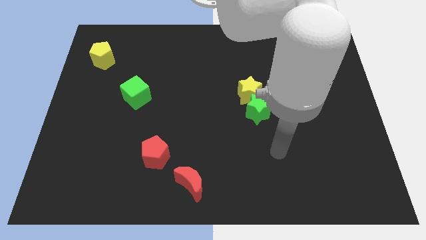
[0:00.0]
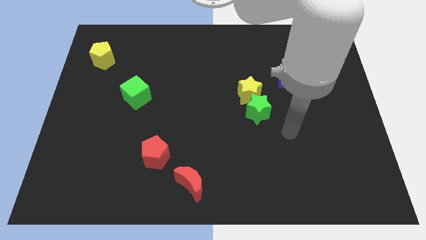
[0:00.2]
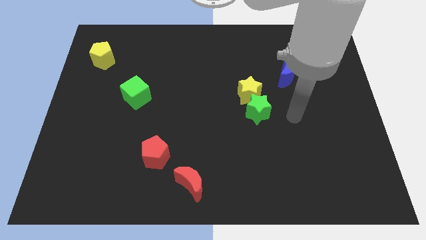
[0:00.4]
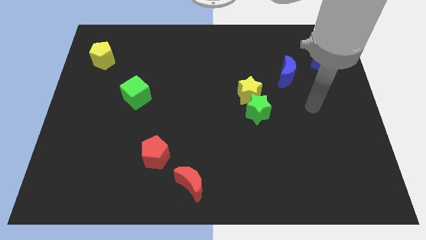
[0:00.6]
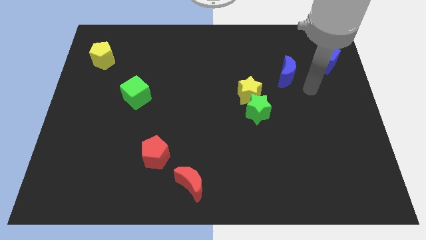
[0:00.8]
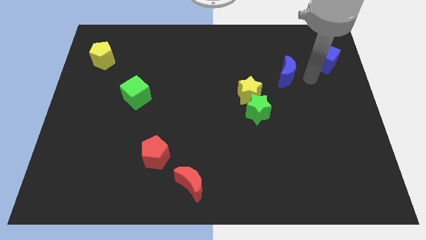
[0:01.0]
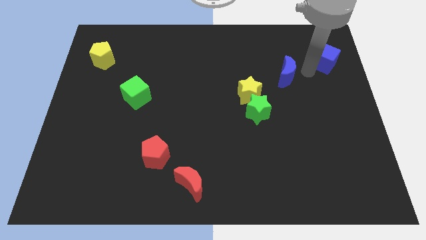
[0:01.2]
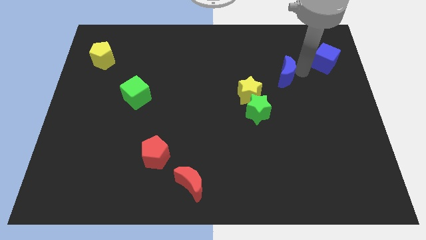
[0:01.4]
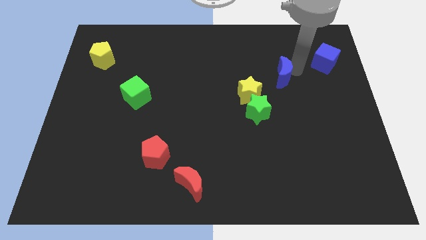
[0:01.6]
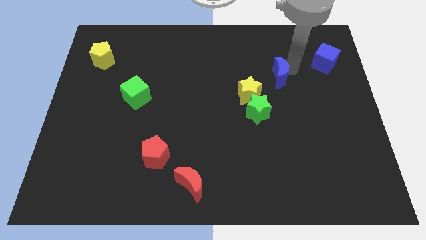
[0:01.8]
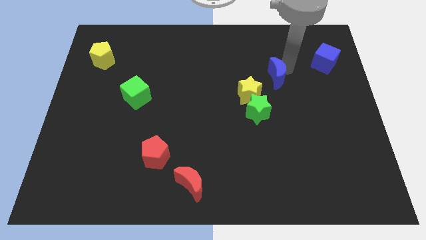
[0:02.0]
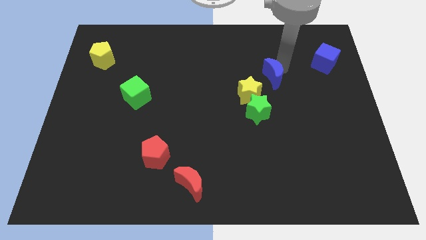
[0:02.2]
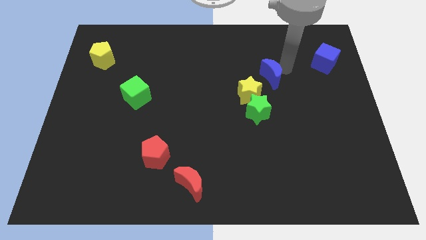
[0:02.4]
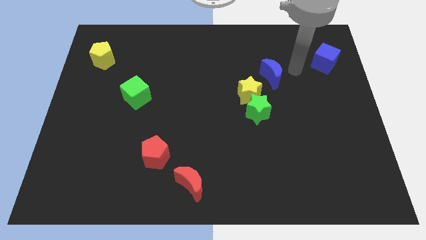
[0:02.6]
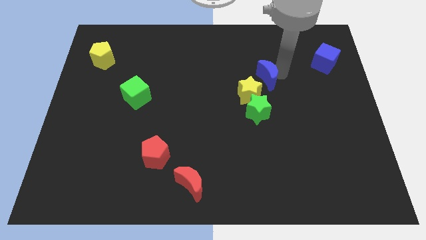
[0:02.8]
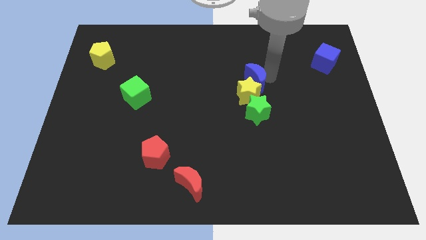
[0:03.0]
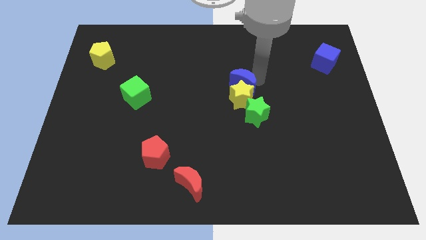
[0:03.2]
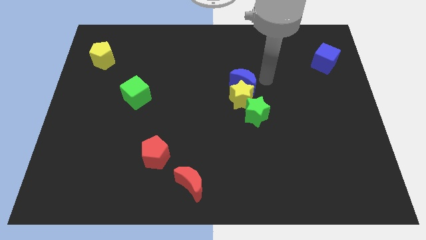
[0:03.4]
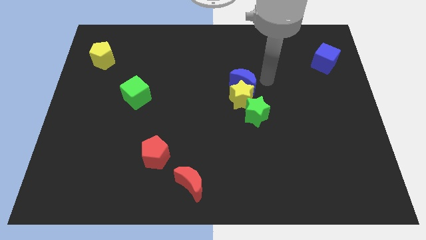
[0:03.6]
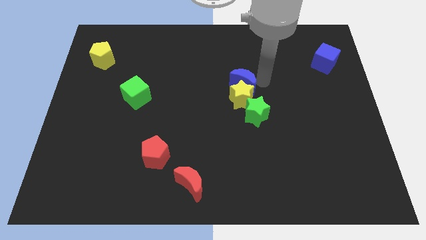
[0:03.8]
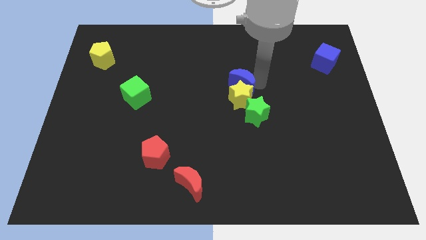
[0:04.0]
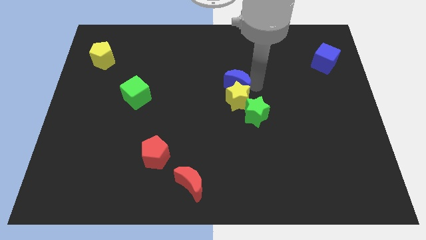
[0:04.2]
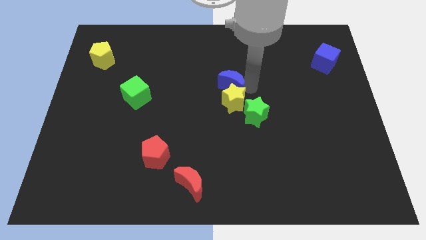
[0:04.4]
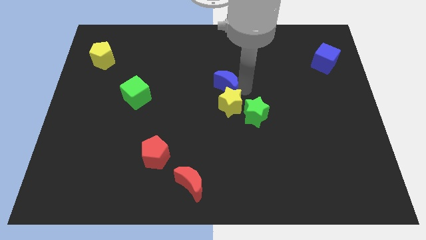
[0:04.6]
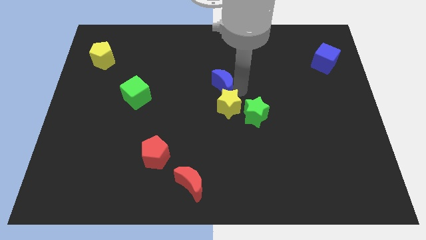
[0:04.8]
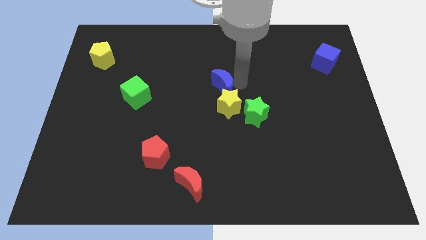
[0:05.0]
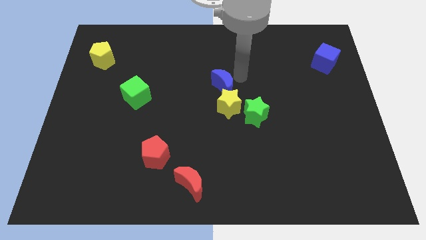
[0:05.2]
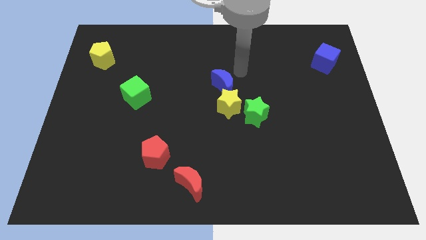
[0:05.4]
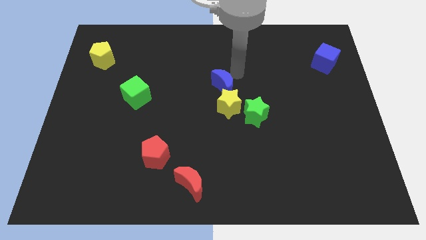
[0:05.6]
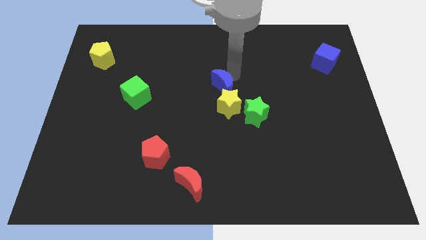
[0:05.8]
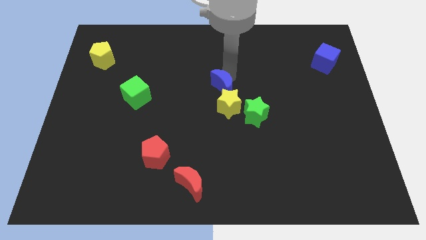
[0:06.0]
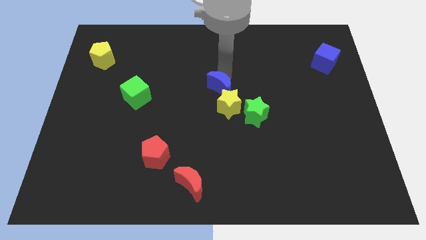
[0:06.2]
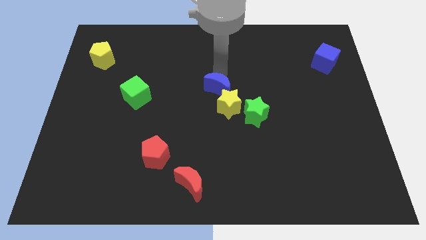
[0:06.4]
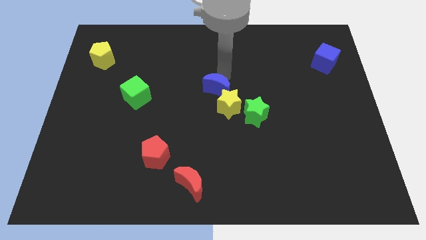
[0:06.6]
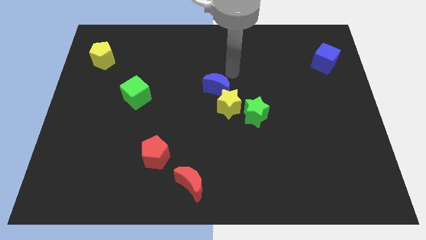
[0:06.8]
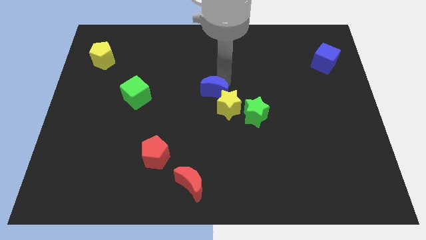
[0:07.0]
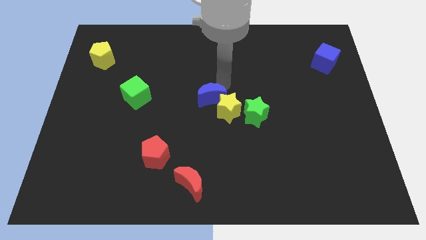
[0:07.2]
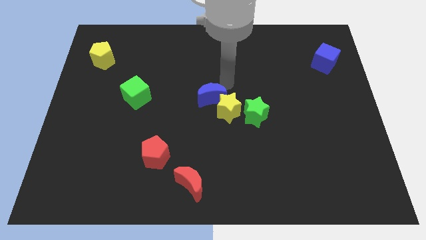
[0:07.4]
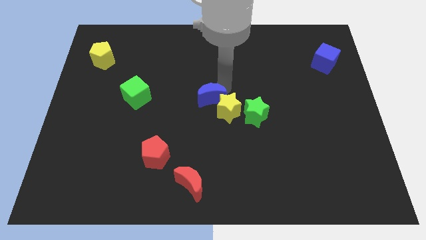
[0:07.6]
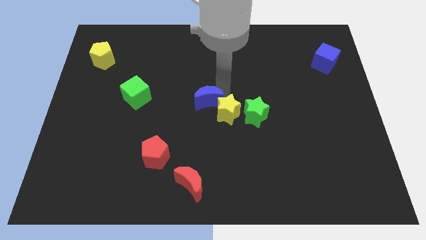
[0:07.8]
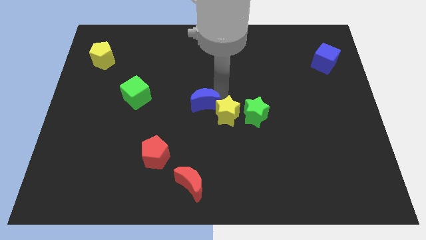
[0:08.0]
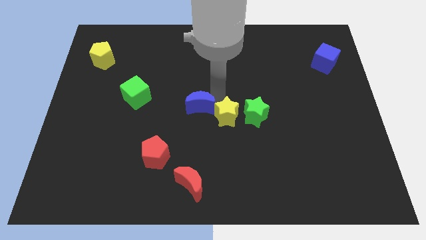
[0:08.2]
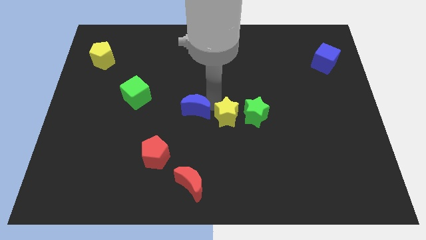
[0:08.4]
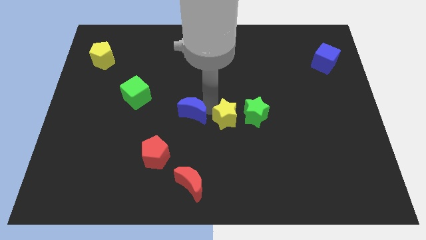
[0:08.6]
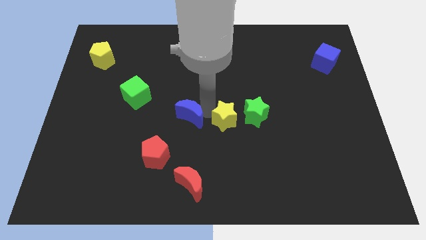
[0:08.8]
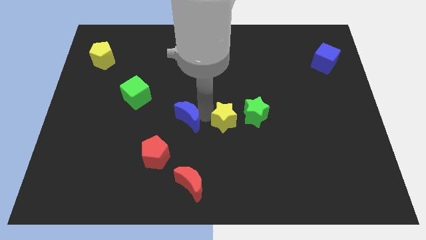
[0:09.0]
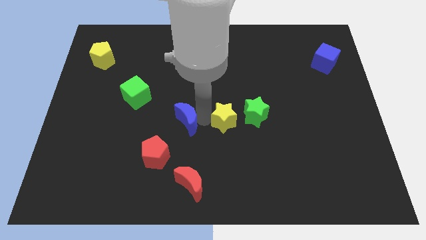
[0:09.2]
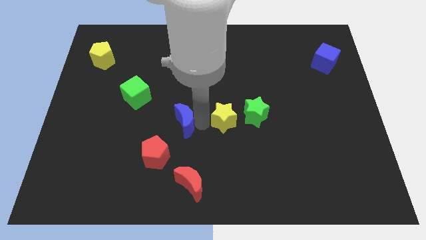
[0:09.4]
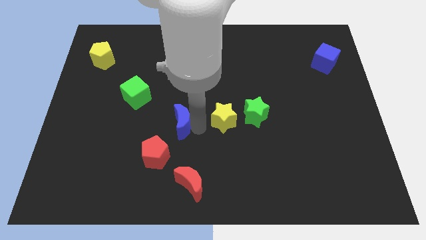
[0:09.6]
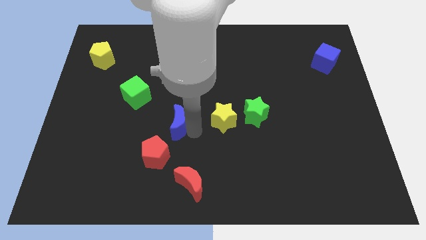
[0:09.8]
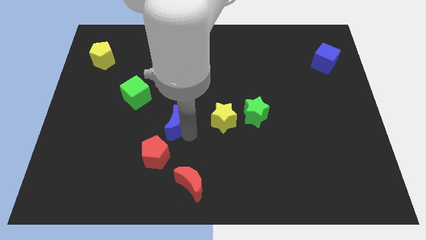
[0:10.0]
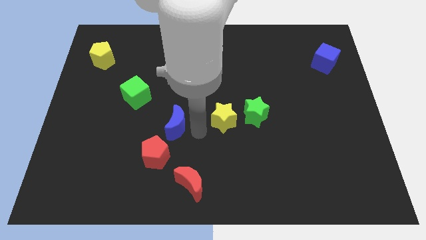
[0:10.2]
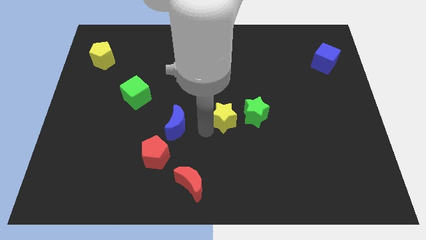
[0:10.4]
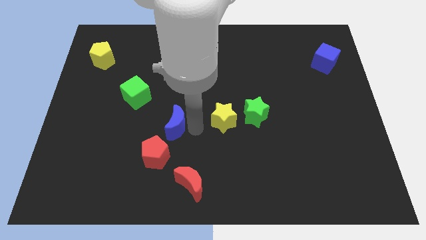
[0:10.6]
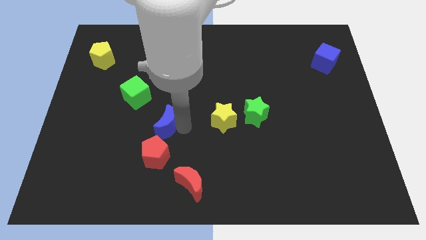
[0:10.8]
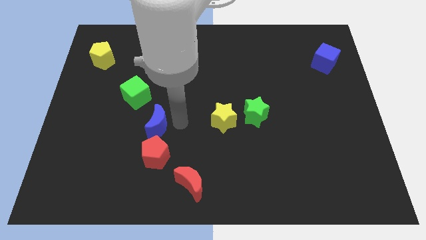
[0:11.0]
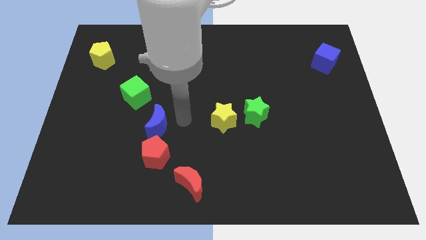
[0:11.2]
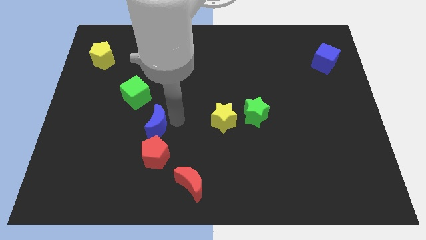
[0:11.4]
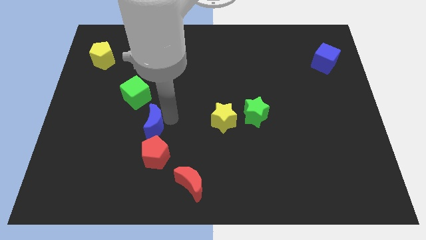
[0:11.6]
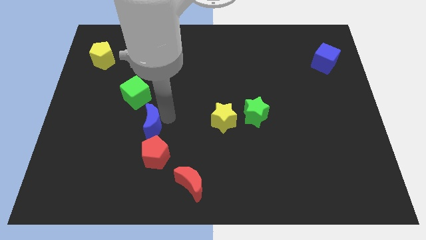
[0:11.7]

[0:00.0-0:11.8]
push the blue moon below the green cube
